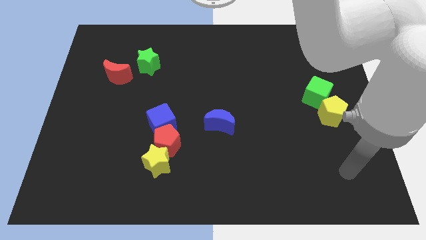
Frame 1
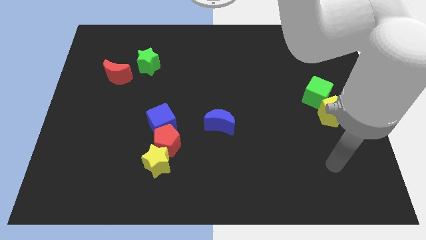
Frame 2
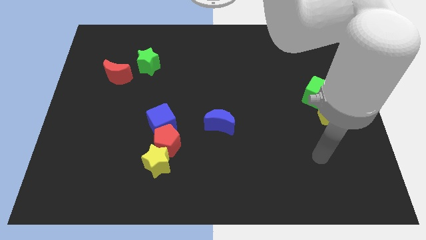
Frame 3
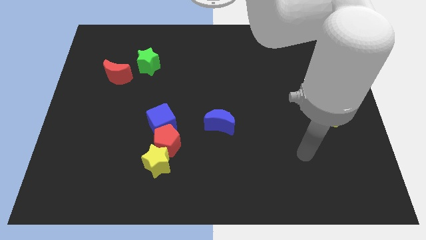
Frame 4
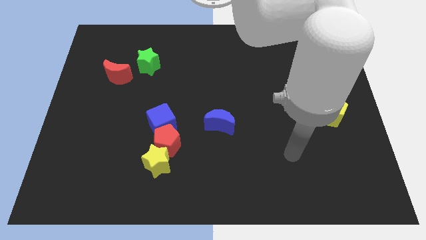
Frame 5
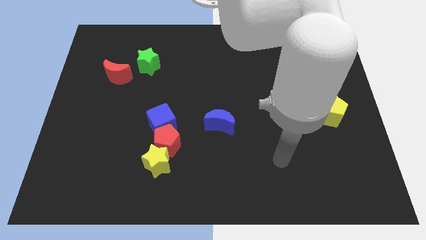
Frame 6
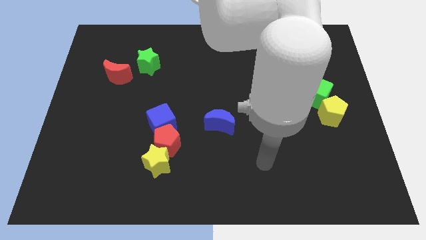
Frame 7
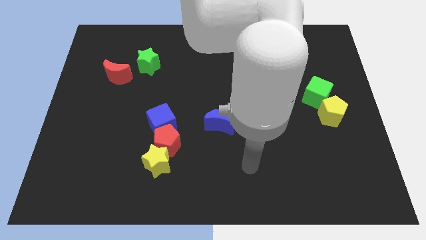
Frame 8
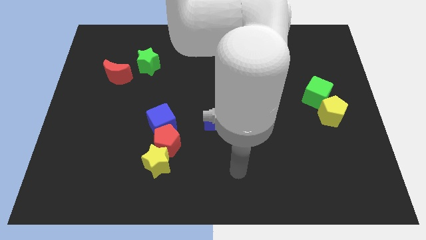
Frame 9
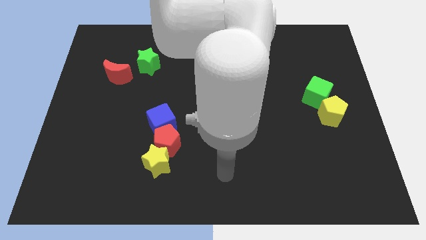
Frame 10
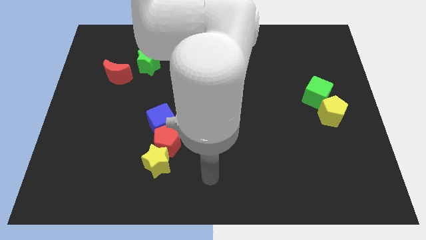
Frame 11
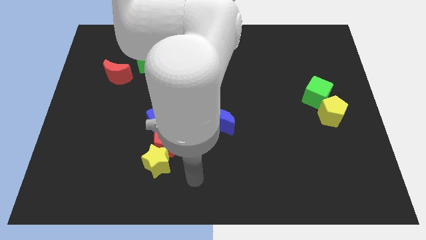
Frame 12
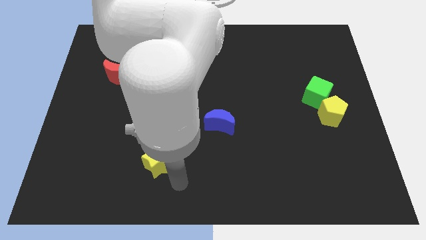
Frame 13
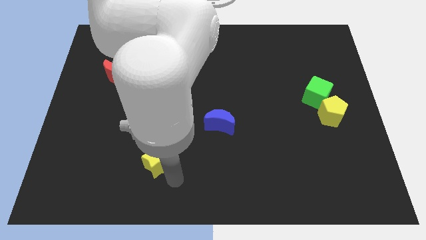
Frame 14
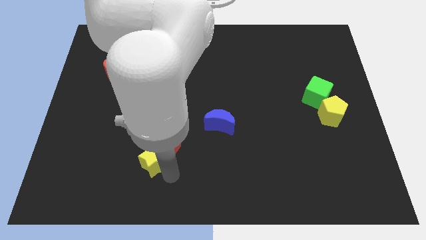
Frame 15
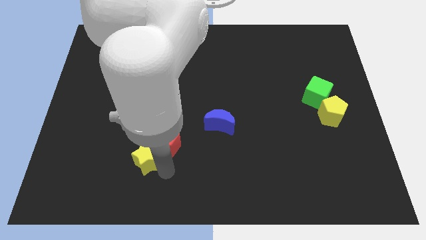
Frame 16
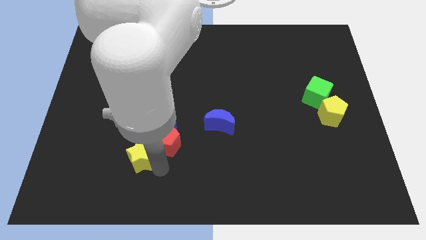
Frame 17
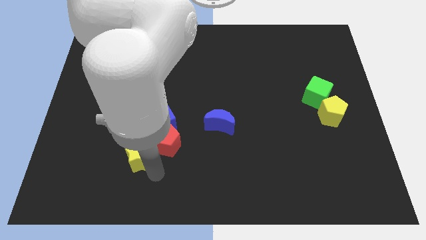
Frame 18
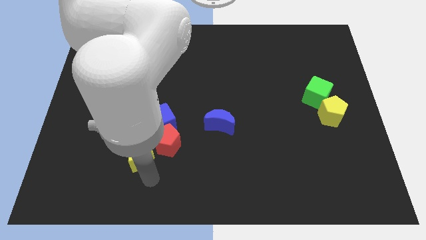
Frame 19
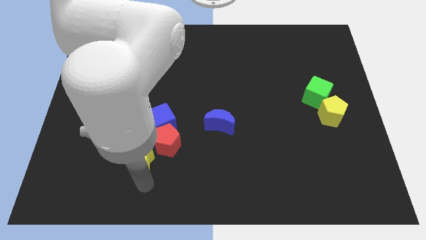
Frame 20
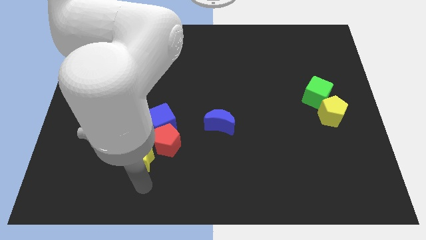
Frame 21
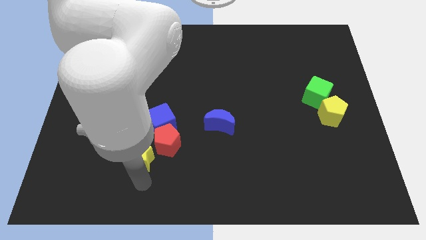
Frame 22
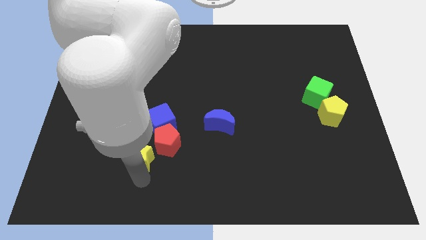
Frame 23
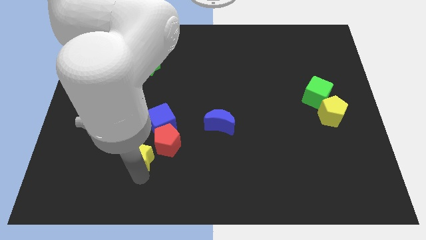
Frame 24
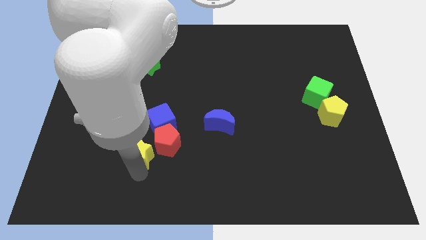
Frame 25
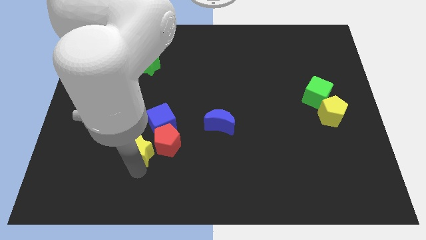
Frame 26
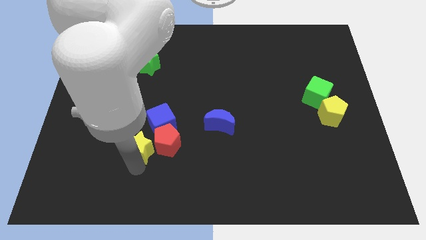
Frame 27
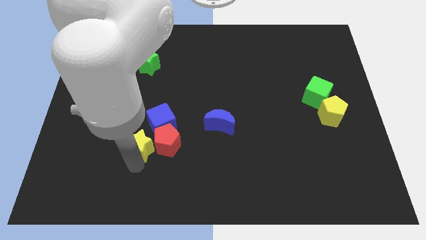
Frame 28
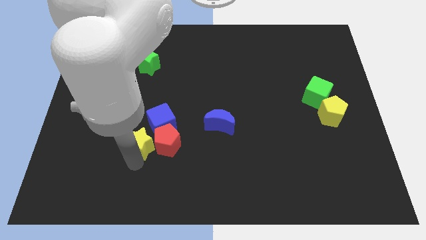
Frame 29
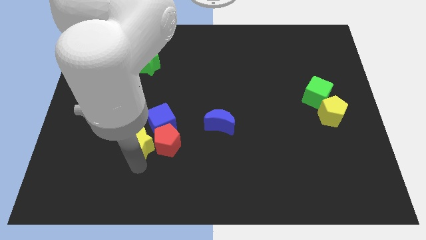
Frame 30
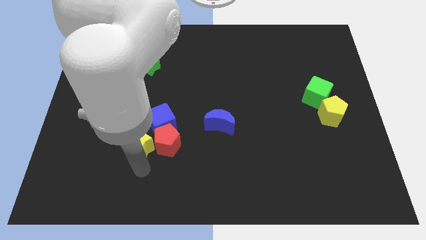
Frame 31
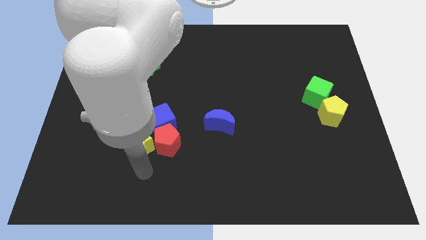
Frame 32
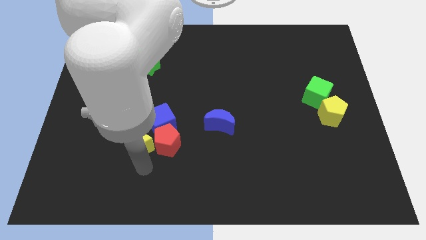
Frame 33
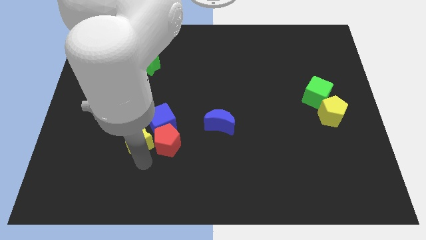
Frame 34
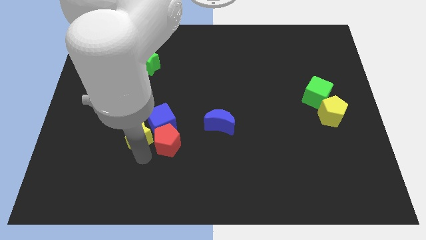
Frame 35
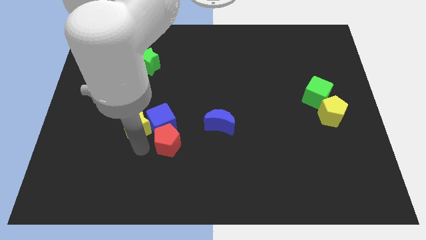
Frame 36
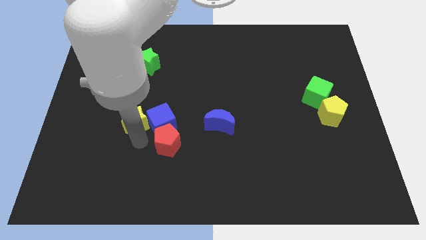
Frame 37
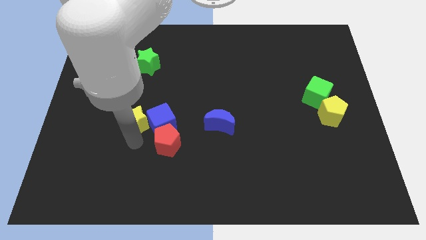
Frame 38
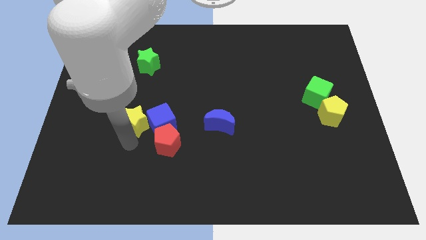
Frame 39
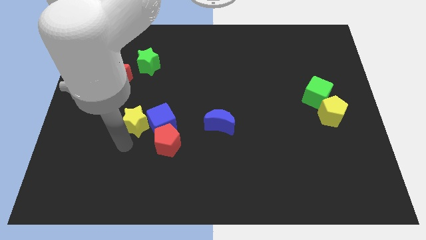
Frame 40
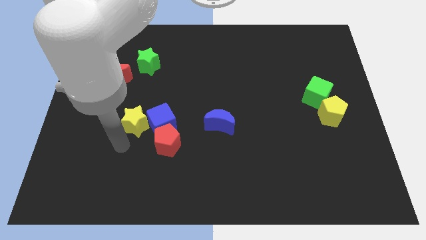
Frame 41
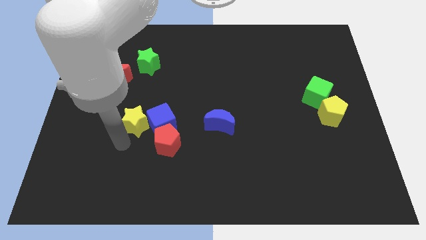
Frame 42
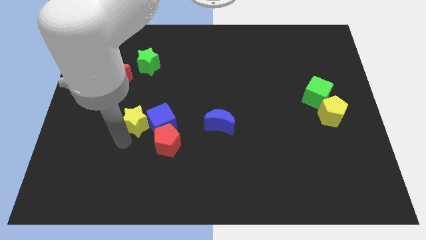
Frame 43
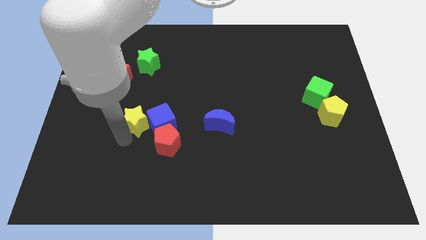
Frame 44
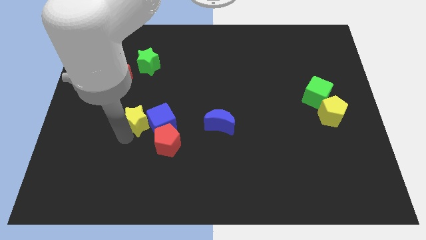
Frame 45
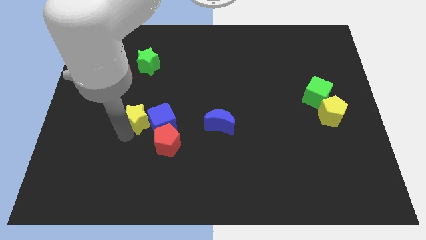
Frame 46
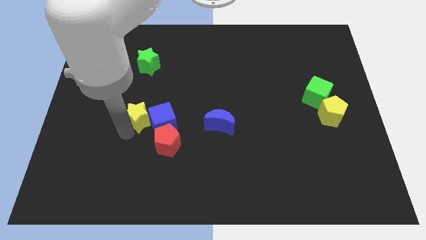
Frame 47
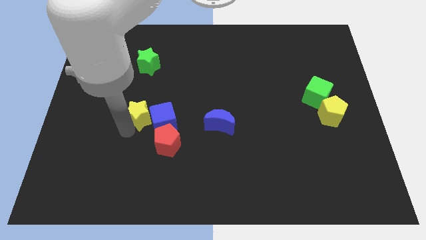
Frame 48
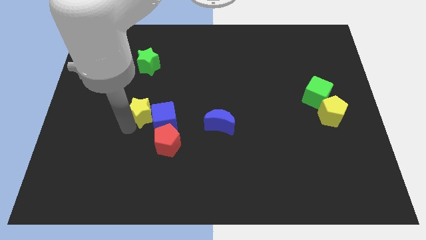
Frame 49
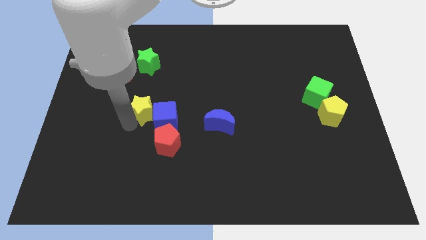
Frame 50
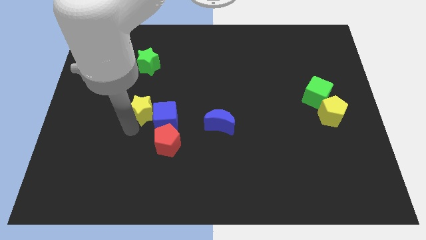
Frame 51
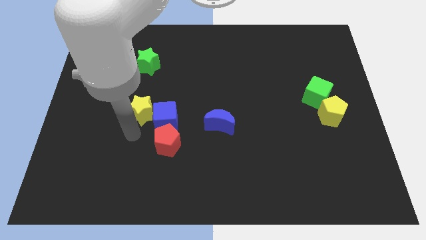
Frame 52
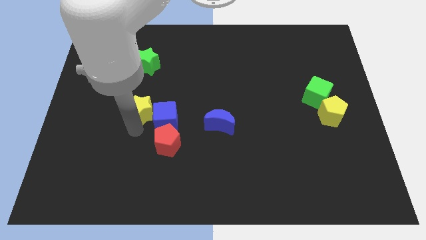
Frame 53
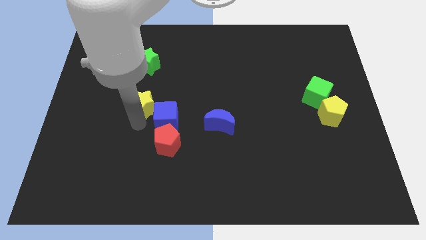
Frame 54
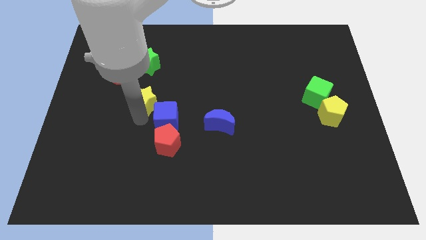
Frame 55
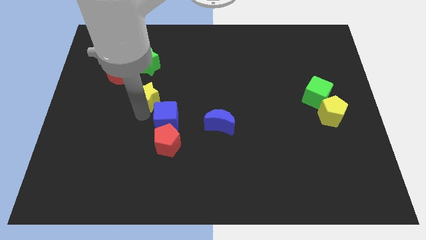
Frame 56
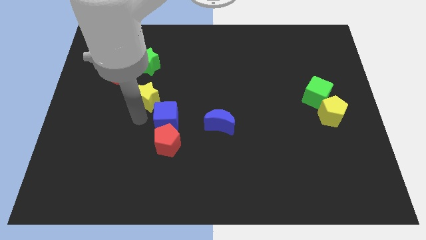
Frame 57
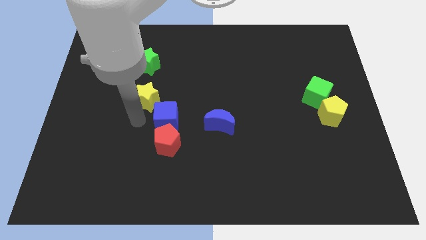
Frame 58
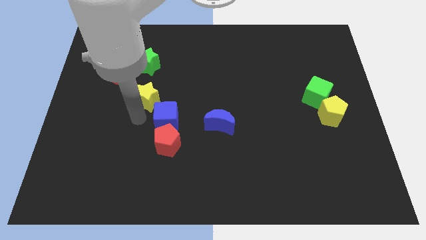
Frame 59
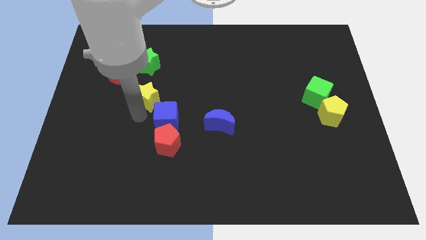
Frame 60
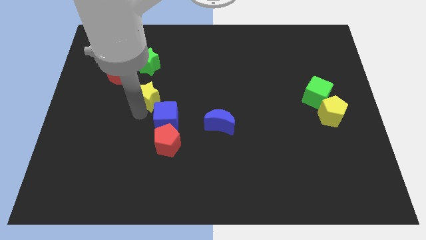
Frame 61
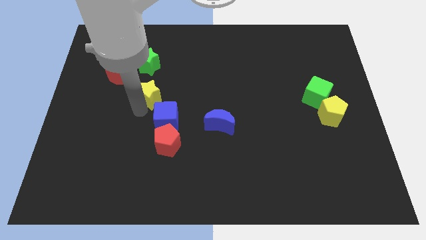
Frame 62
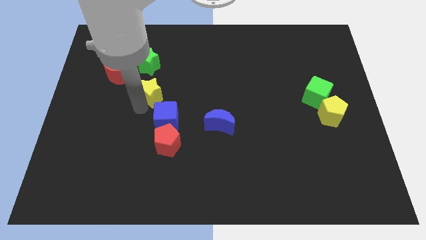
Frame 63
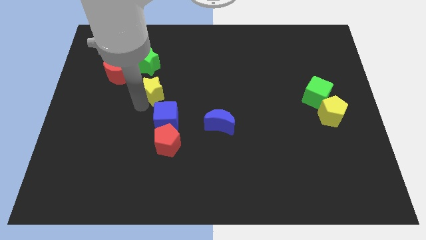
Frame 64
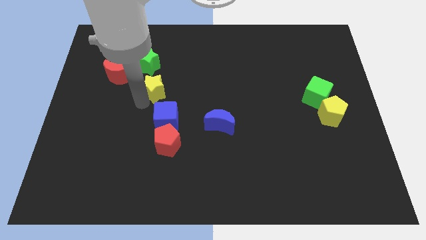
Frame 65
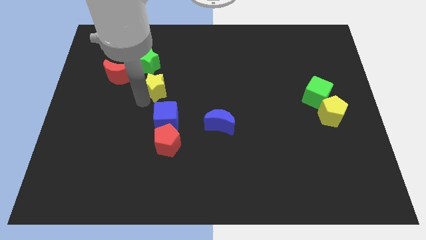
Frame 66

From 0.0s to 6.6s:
slide the yellow star up

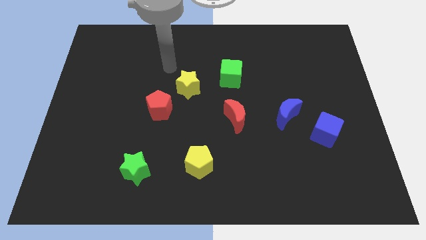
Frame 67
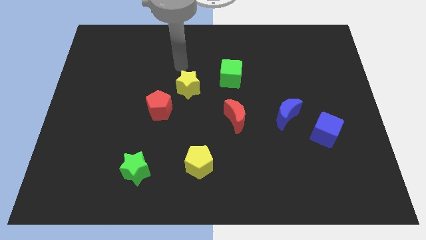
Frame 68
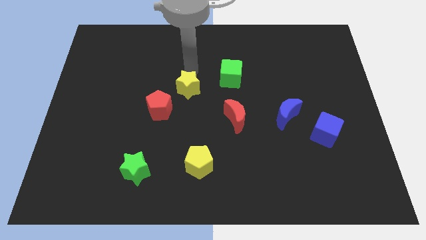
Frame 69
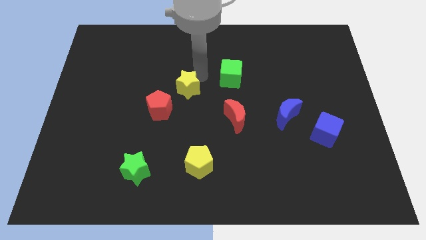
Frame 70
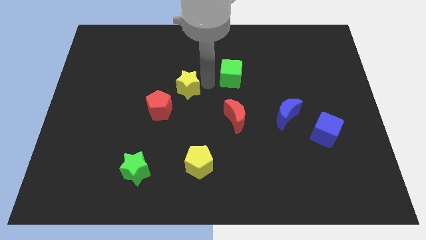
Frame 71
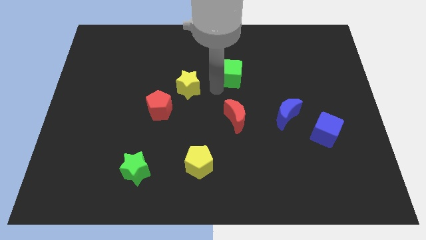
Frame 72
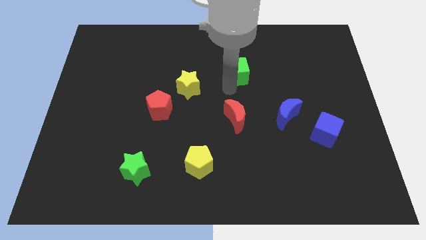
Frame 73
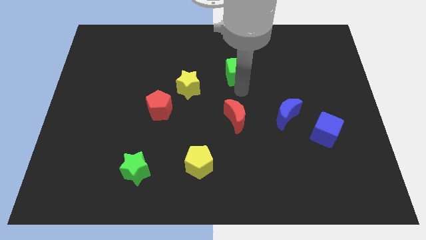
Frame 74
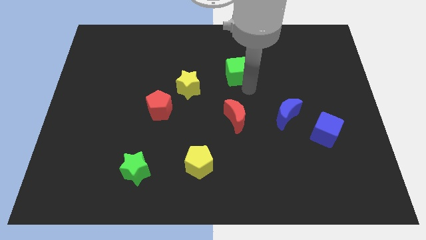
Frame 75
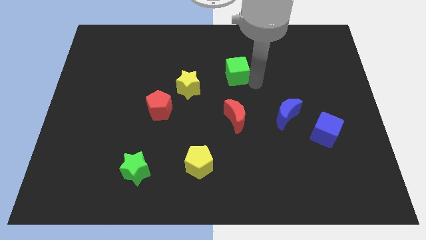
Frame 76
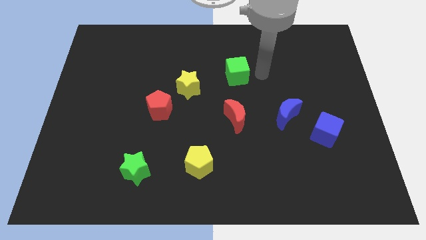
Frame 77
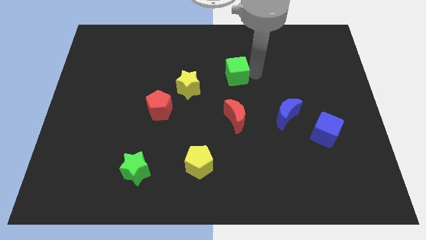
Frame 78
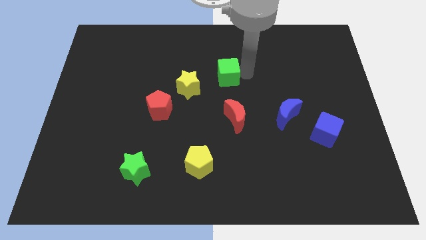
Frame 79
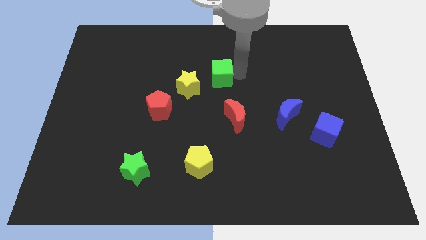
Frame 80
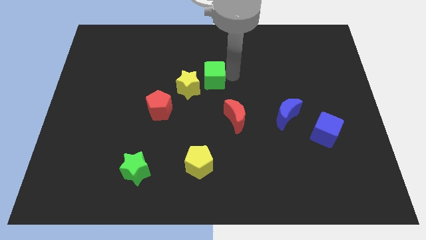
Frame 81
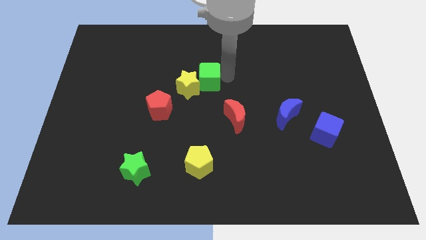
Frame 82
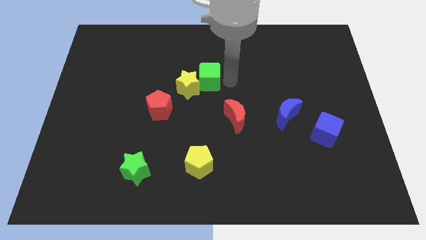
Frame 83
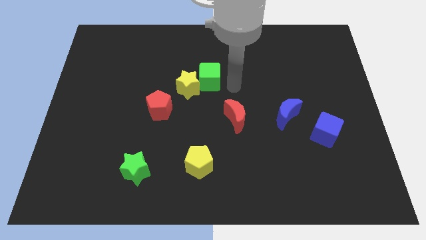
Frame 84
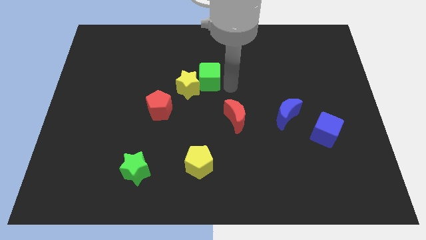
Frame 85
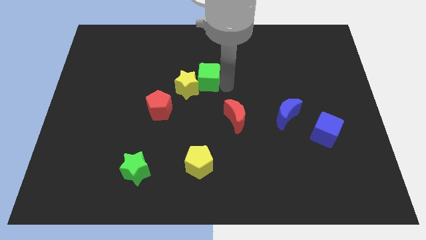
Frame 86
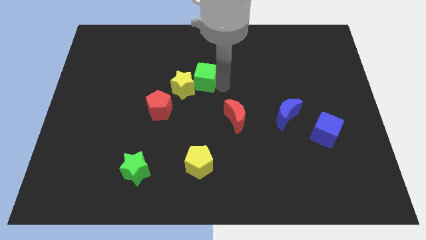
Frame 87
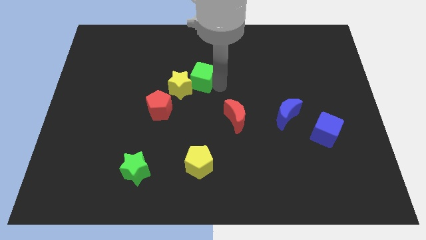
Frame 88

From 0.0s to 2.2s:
push the green cube a little to the left
